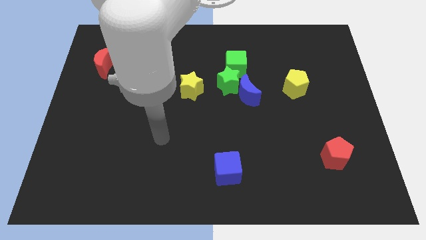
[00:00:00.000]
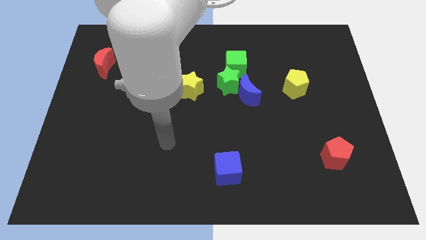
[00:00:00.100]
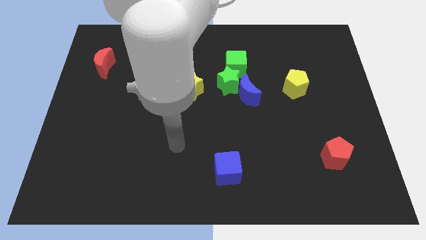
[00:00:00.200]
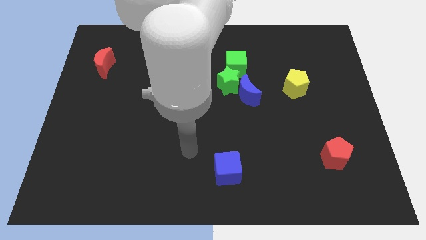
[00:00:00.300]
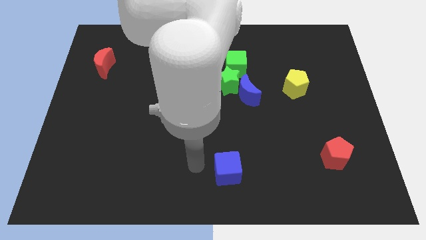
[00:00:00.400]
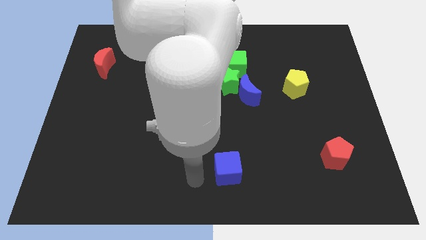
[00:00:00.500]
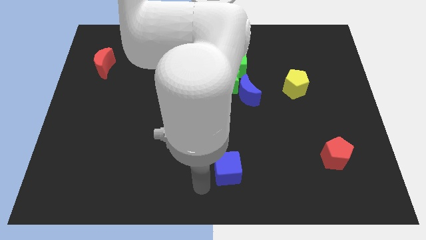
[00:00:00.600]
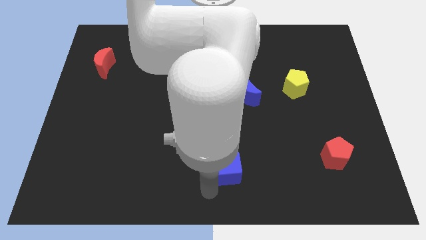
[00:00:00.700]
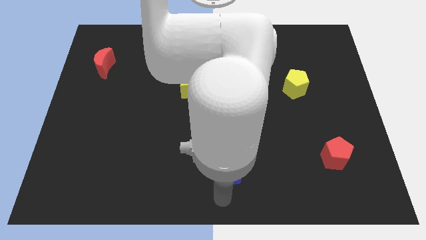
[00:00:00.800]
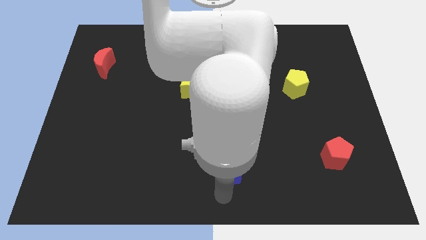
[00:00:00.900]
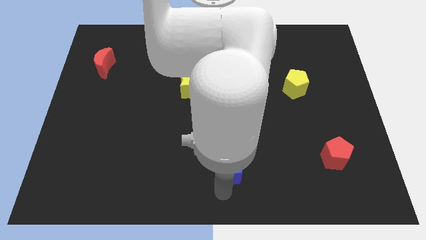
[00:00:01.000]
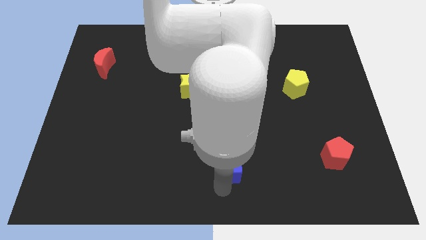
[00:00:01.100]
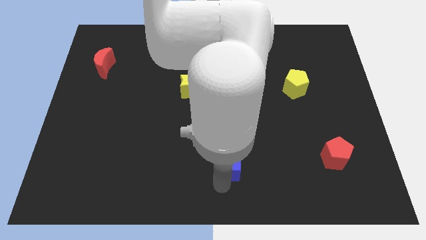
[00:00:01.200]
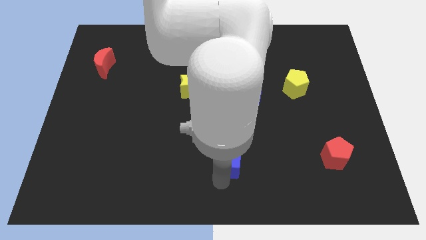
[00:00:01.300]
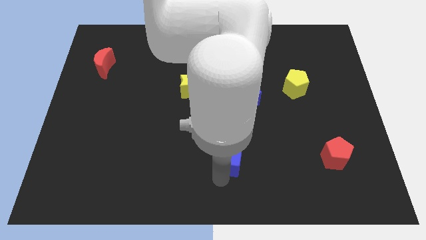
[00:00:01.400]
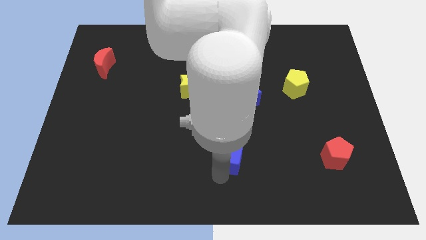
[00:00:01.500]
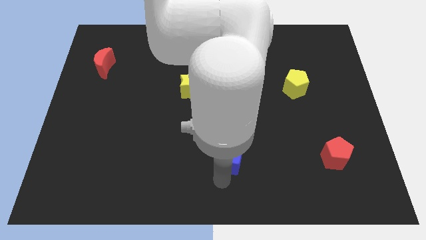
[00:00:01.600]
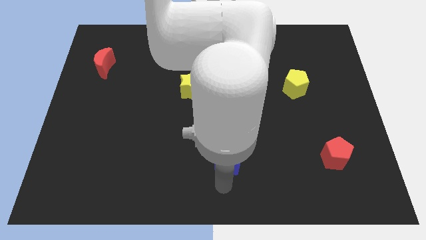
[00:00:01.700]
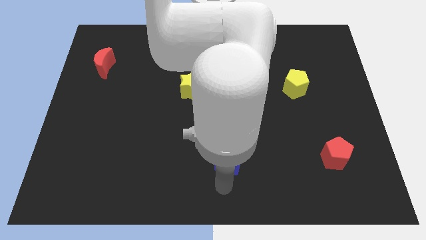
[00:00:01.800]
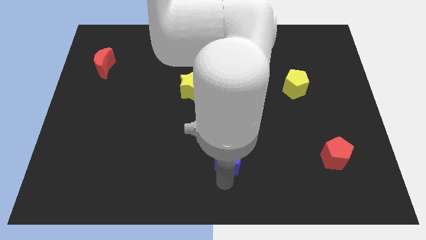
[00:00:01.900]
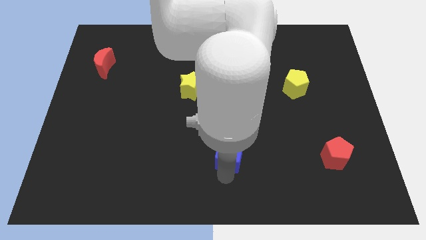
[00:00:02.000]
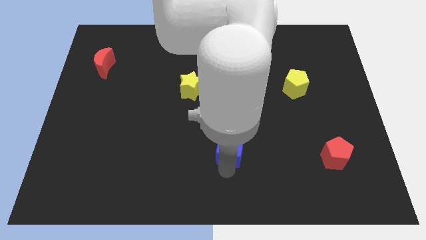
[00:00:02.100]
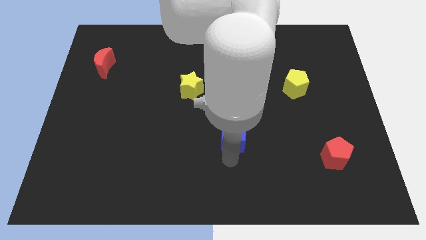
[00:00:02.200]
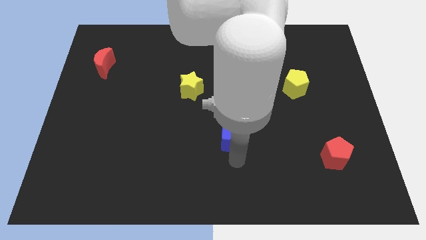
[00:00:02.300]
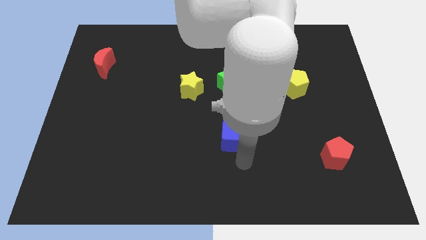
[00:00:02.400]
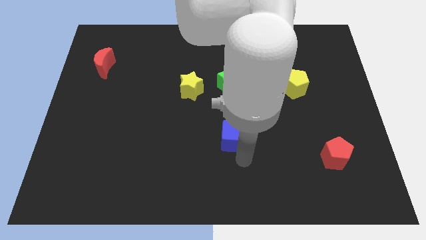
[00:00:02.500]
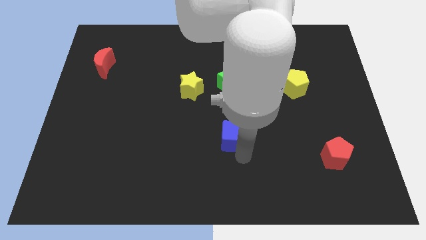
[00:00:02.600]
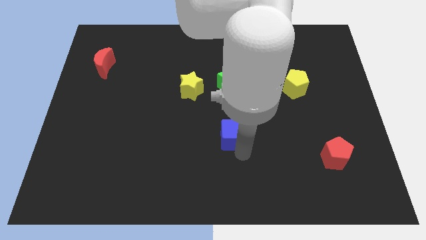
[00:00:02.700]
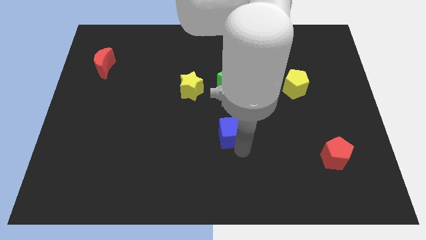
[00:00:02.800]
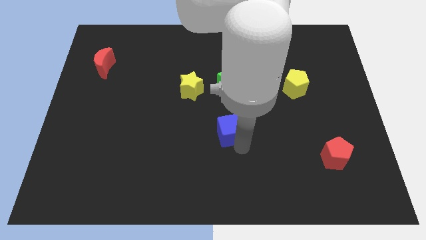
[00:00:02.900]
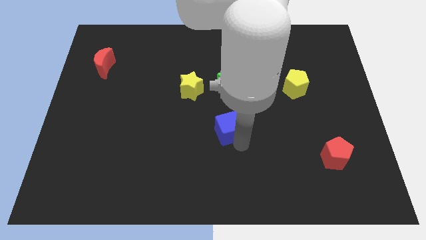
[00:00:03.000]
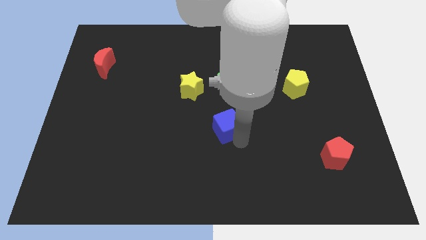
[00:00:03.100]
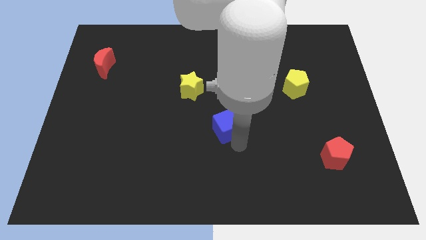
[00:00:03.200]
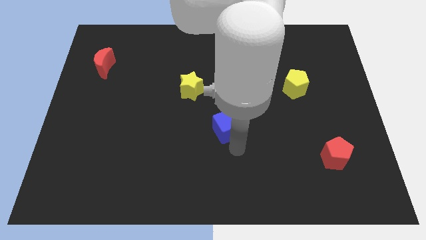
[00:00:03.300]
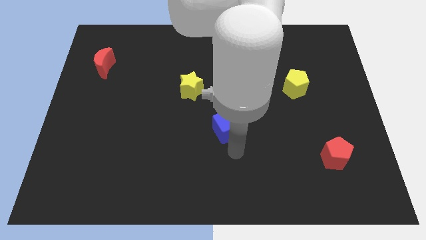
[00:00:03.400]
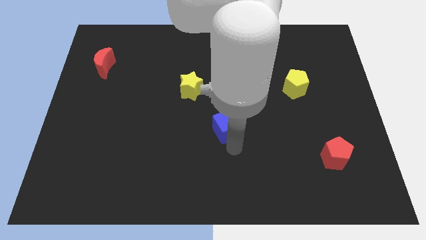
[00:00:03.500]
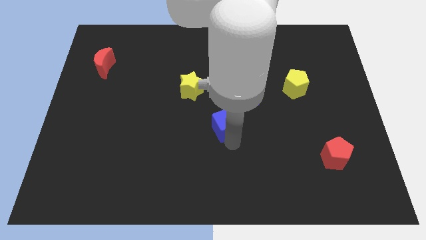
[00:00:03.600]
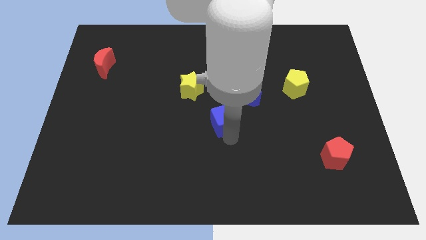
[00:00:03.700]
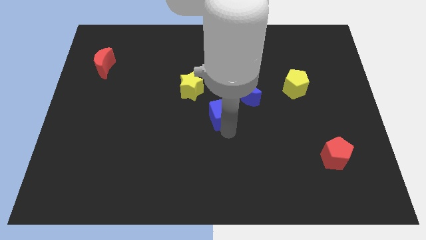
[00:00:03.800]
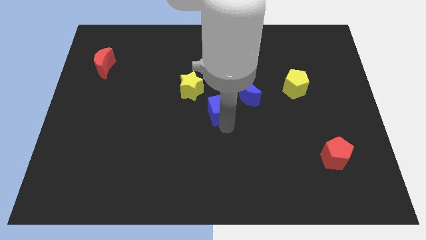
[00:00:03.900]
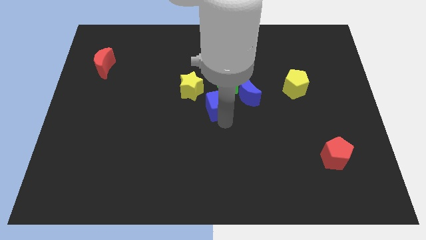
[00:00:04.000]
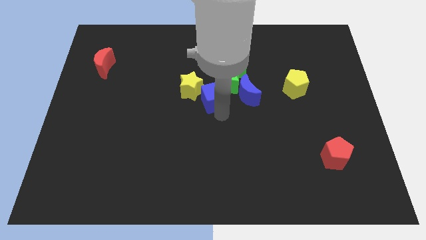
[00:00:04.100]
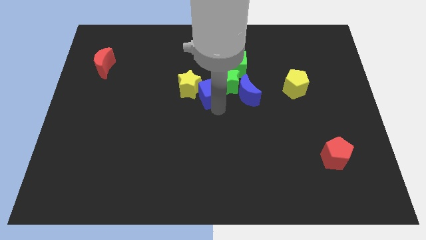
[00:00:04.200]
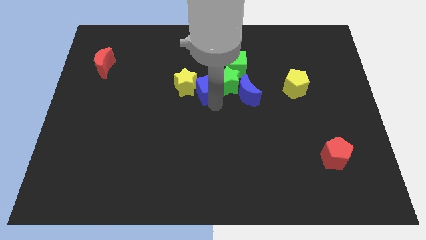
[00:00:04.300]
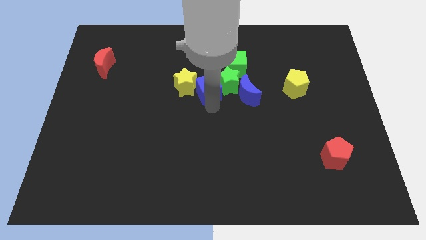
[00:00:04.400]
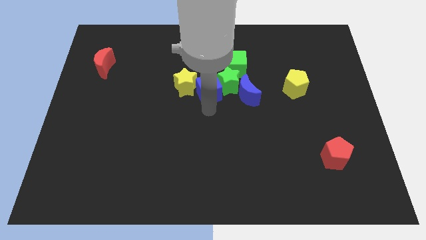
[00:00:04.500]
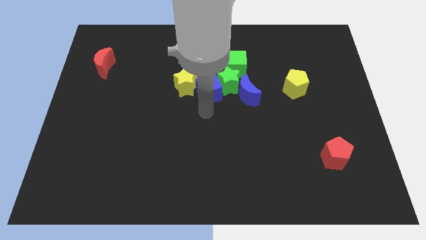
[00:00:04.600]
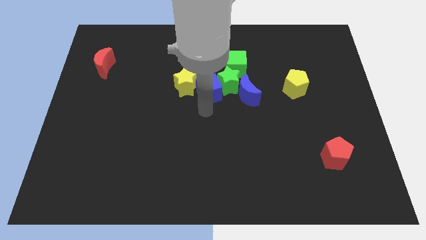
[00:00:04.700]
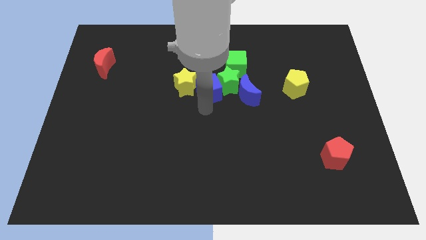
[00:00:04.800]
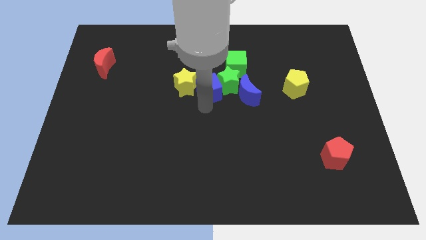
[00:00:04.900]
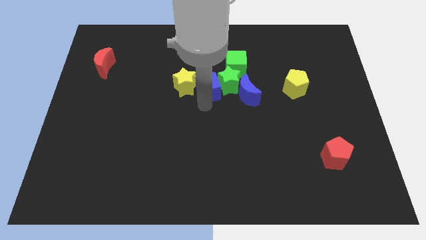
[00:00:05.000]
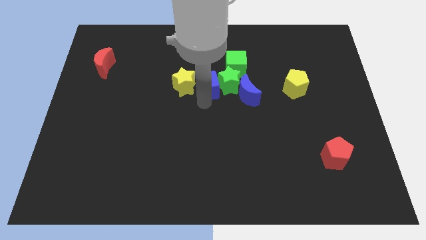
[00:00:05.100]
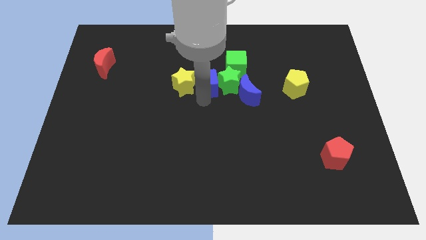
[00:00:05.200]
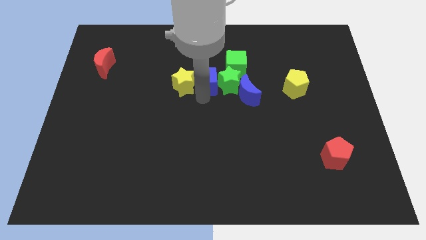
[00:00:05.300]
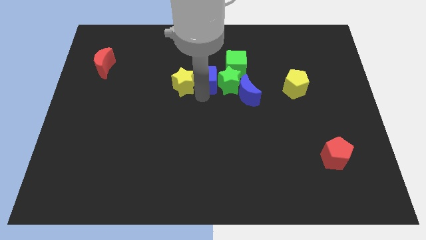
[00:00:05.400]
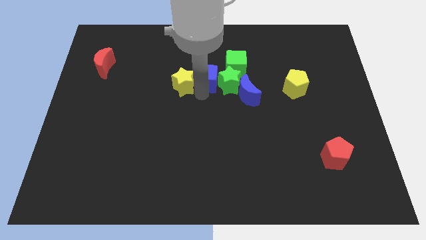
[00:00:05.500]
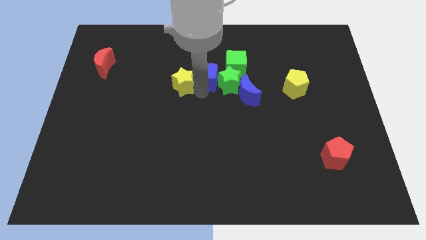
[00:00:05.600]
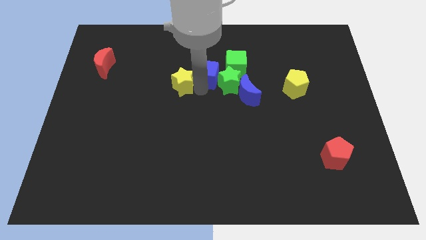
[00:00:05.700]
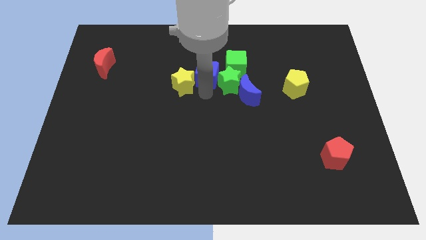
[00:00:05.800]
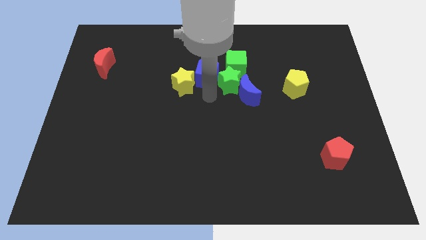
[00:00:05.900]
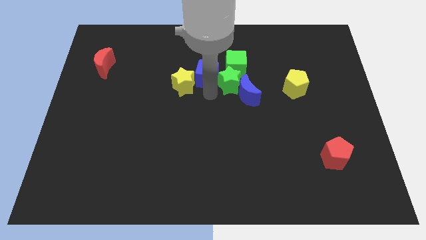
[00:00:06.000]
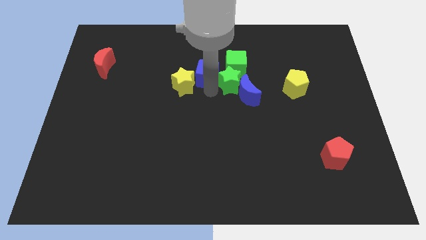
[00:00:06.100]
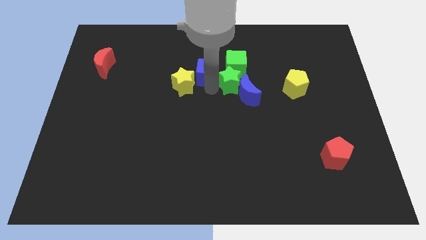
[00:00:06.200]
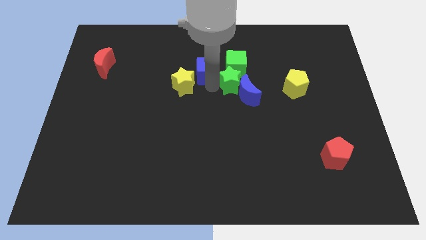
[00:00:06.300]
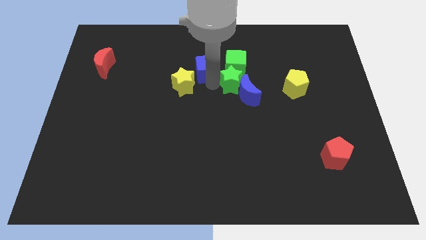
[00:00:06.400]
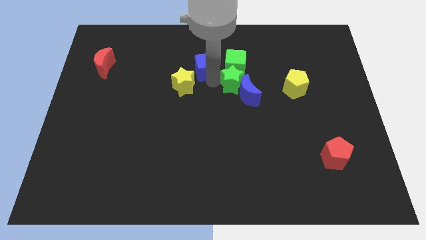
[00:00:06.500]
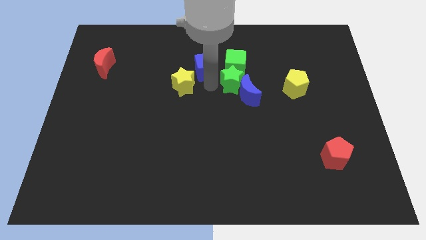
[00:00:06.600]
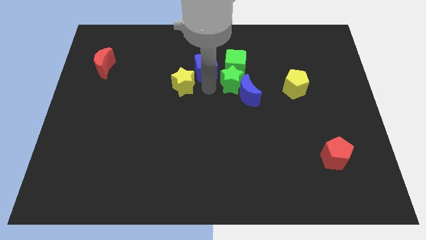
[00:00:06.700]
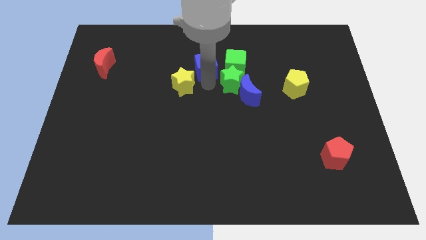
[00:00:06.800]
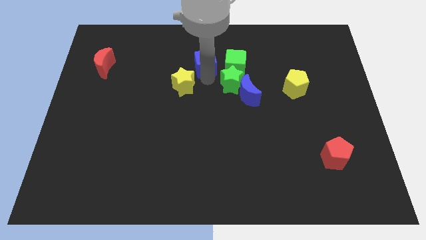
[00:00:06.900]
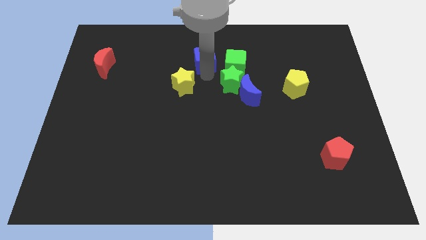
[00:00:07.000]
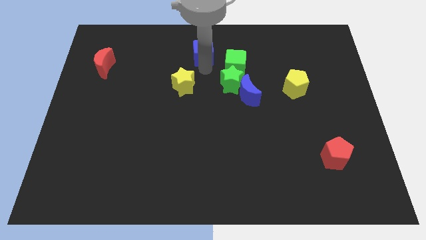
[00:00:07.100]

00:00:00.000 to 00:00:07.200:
slide the blue cube to the top
